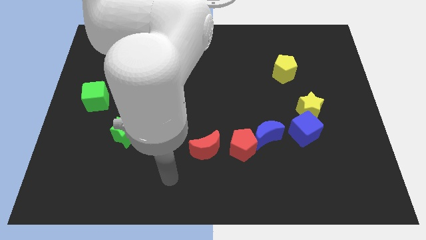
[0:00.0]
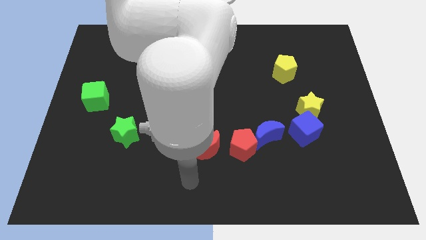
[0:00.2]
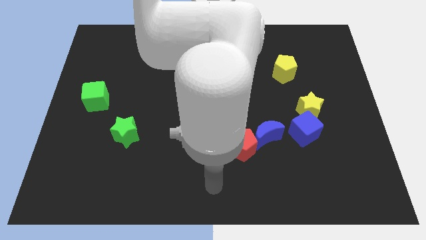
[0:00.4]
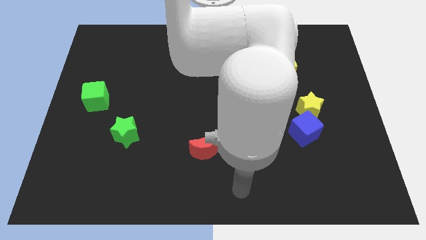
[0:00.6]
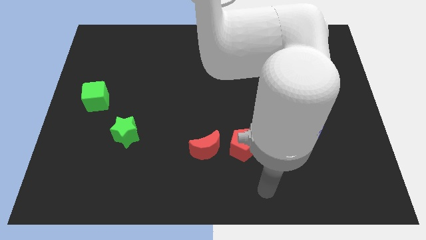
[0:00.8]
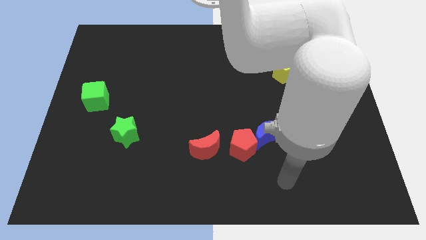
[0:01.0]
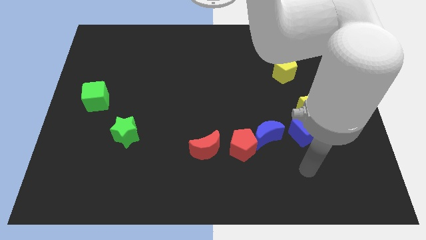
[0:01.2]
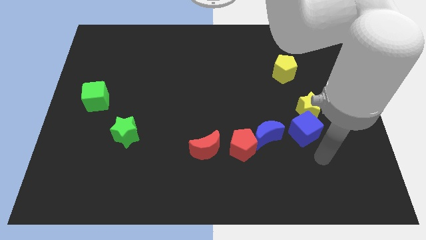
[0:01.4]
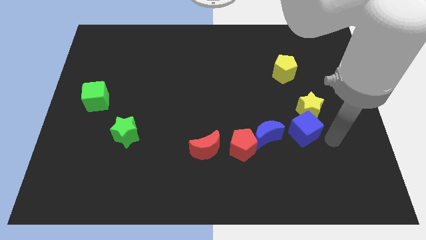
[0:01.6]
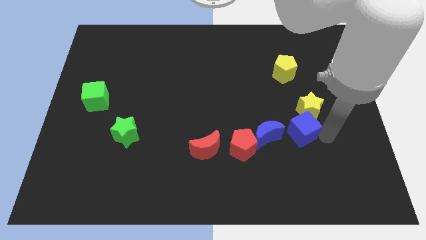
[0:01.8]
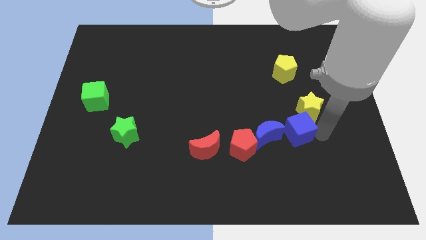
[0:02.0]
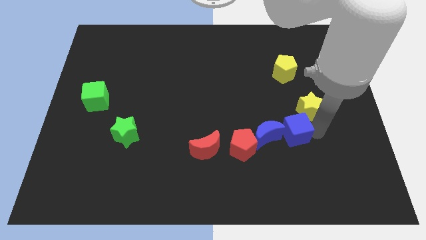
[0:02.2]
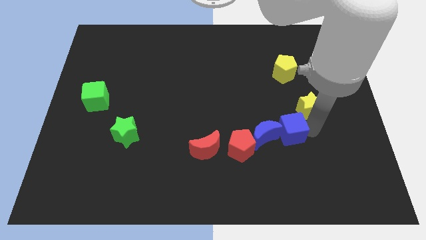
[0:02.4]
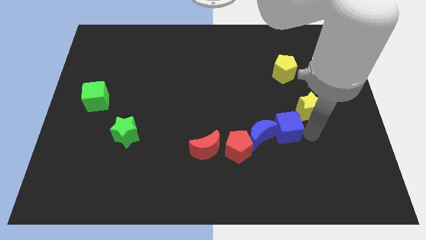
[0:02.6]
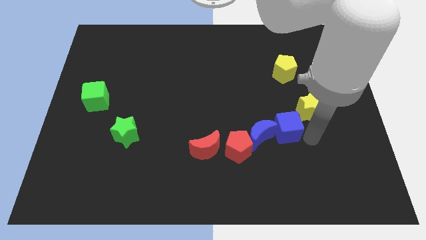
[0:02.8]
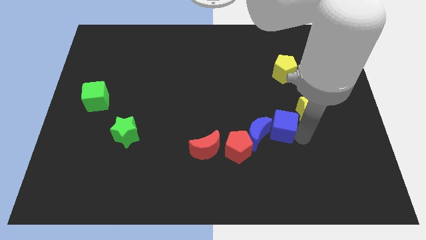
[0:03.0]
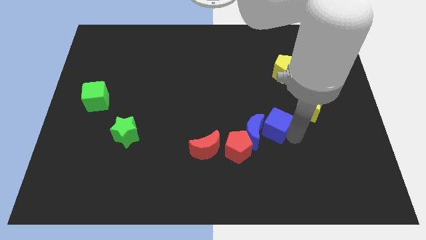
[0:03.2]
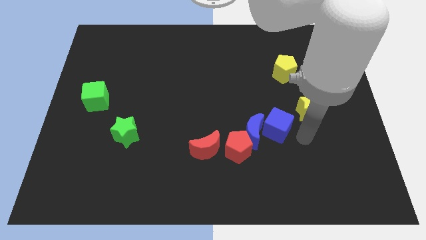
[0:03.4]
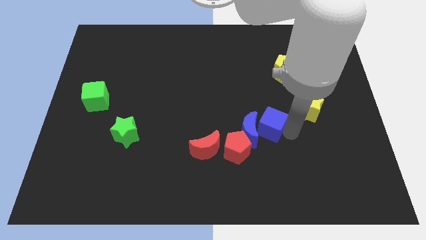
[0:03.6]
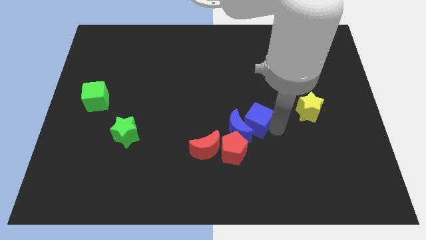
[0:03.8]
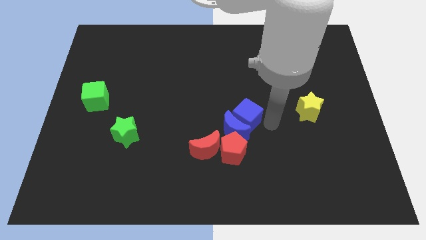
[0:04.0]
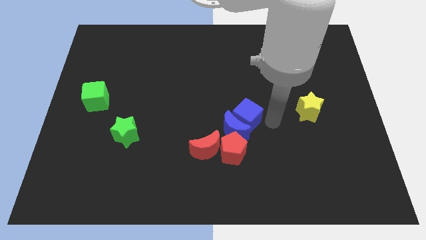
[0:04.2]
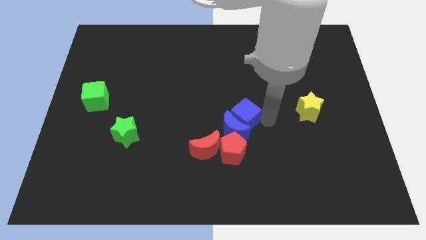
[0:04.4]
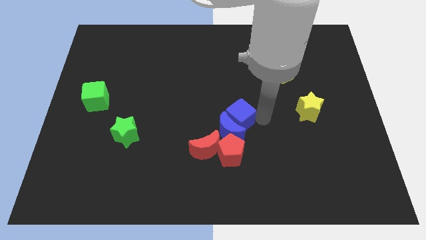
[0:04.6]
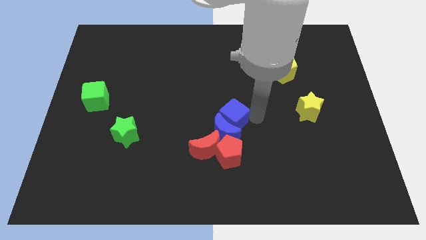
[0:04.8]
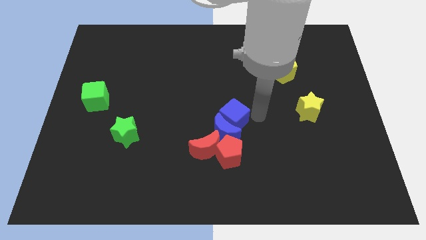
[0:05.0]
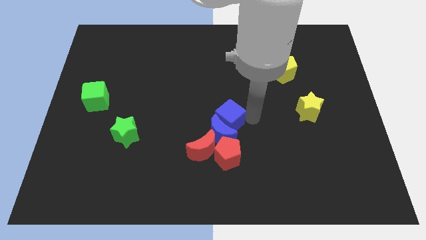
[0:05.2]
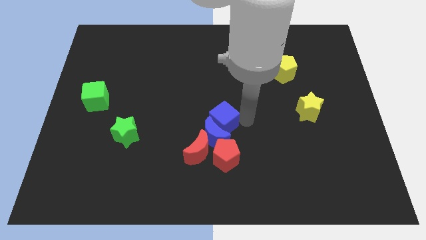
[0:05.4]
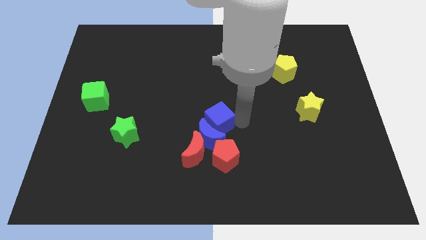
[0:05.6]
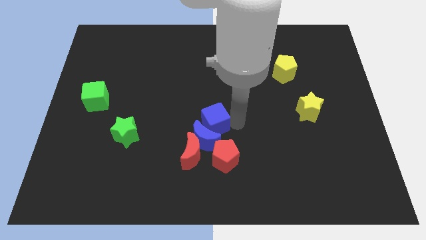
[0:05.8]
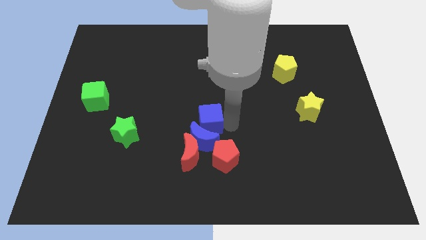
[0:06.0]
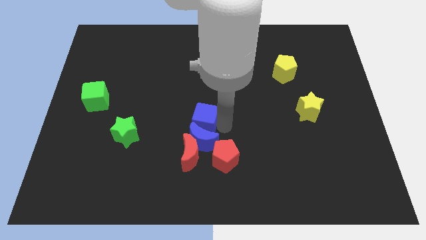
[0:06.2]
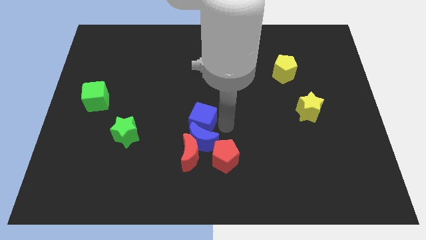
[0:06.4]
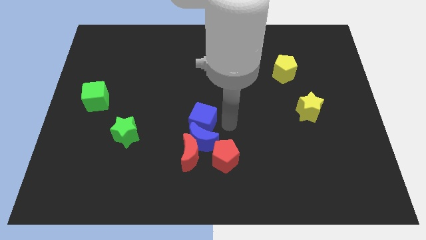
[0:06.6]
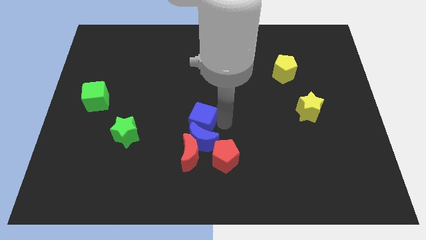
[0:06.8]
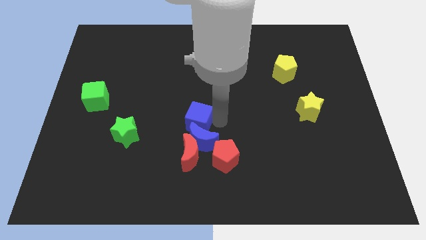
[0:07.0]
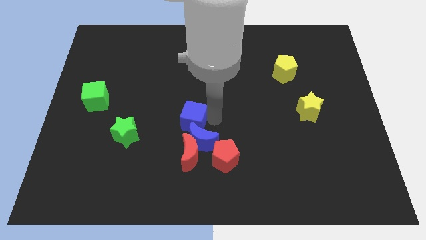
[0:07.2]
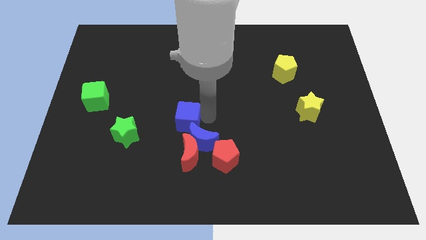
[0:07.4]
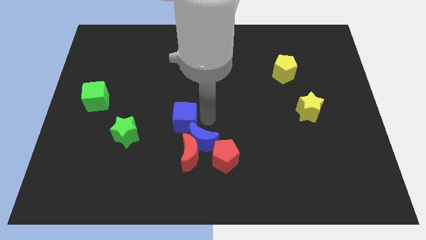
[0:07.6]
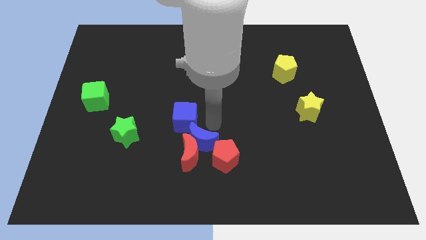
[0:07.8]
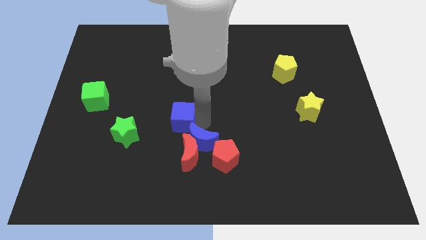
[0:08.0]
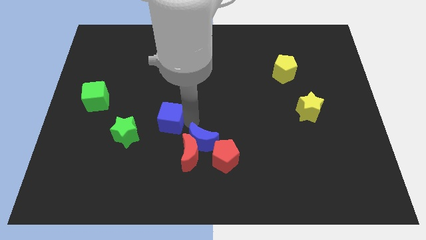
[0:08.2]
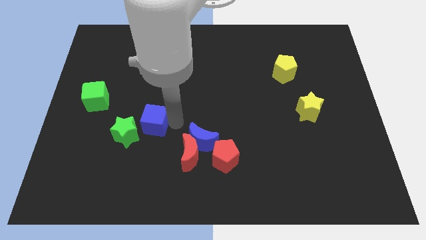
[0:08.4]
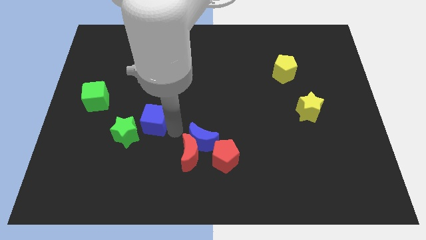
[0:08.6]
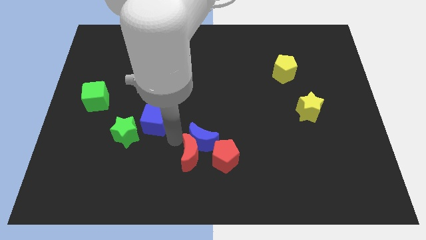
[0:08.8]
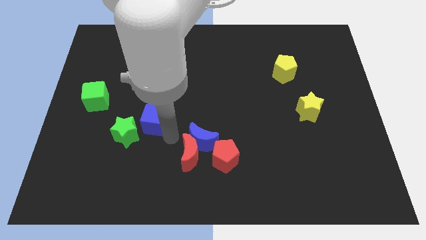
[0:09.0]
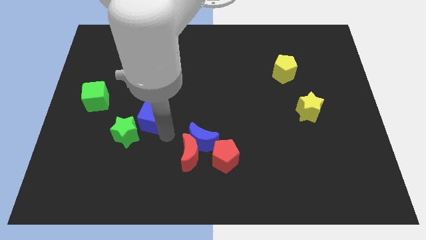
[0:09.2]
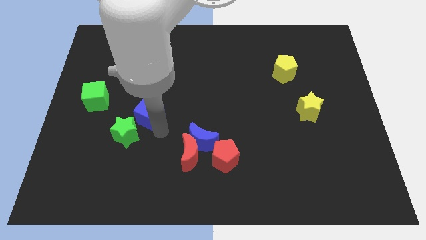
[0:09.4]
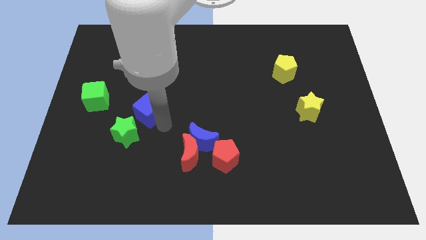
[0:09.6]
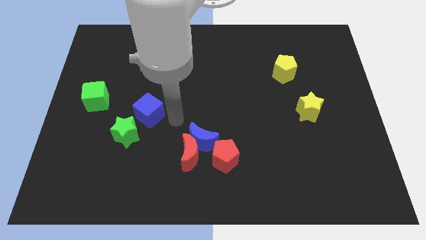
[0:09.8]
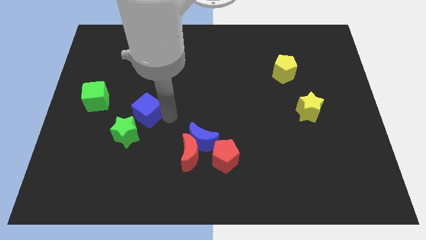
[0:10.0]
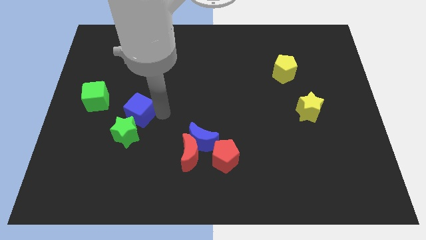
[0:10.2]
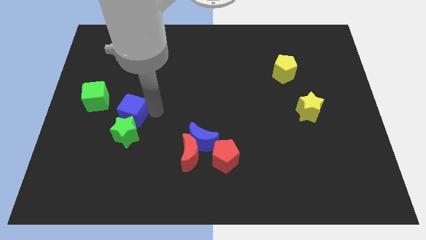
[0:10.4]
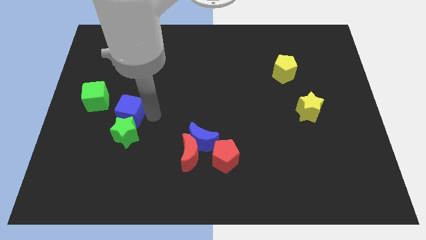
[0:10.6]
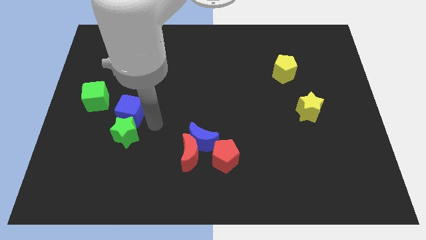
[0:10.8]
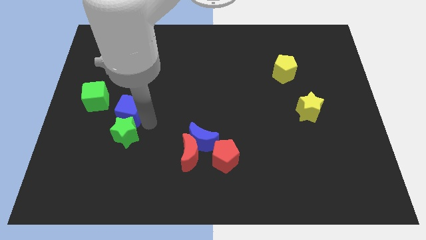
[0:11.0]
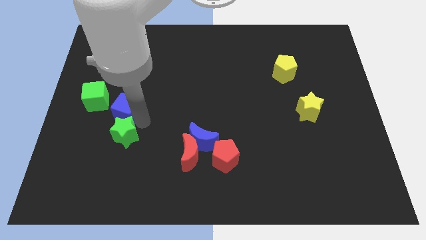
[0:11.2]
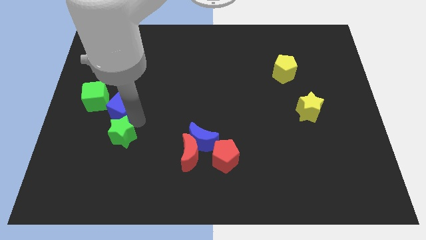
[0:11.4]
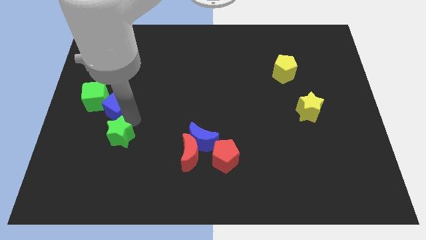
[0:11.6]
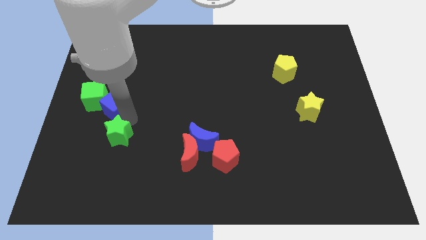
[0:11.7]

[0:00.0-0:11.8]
move the blue cube to the green cube
